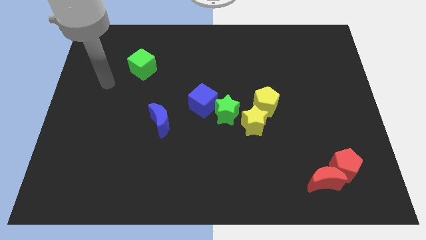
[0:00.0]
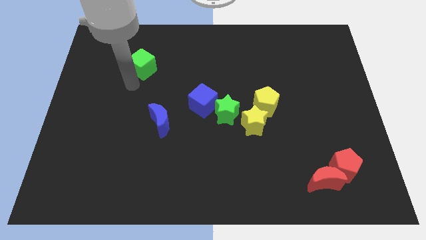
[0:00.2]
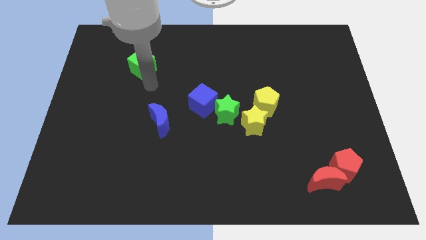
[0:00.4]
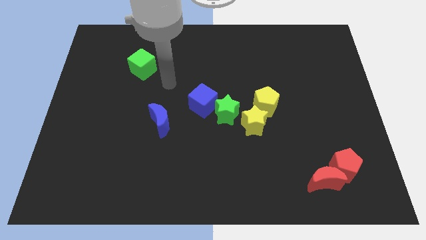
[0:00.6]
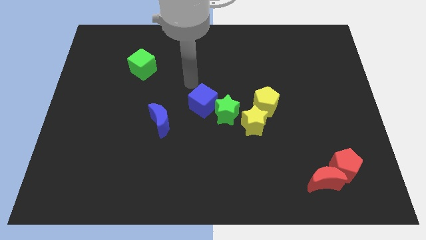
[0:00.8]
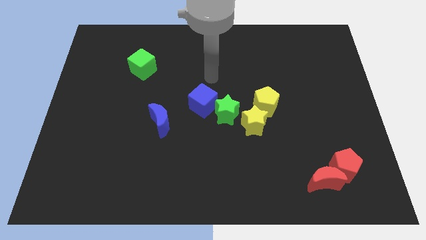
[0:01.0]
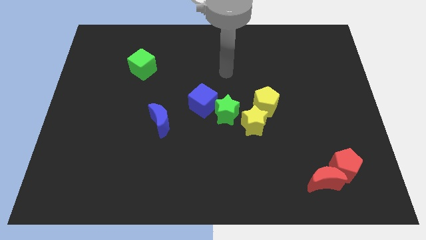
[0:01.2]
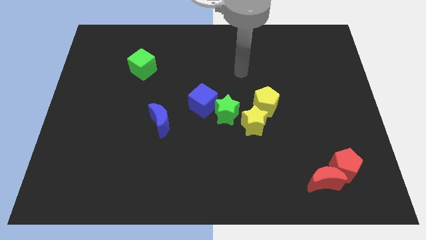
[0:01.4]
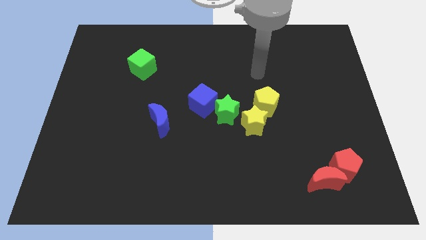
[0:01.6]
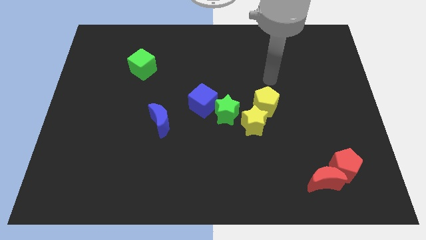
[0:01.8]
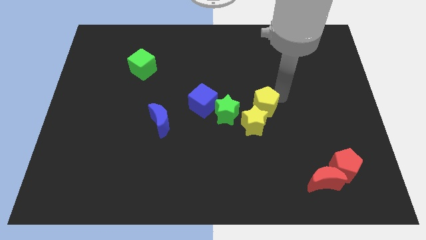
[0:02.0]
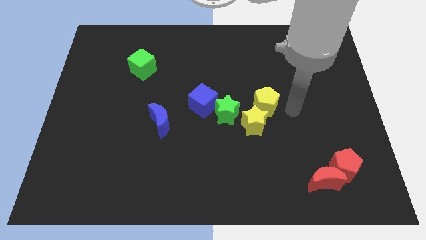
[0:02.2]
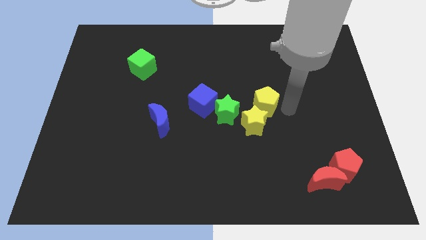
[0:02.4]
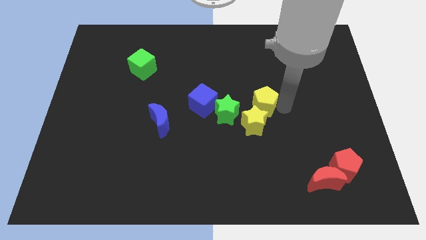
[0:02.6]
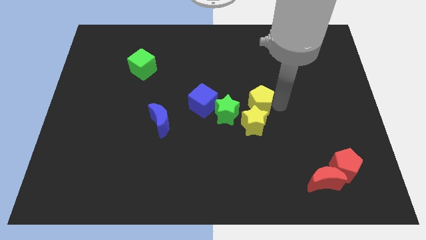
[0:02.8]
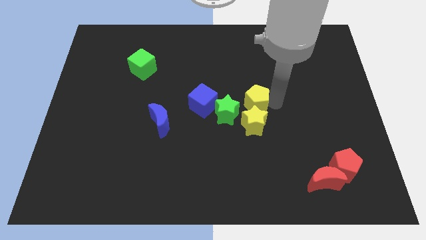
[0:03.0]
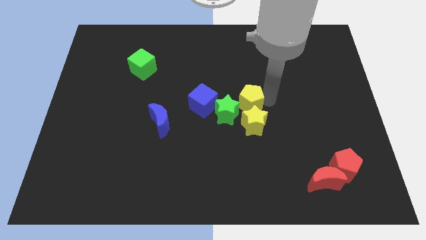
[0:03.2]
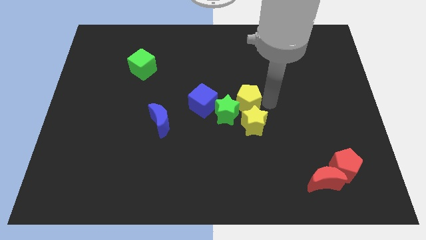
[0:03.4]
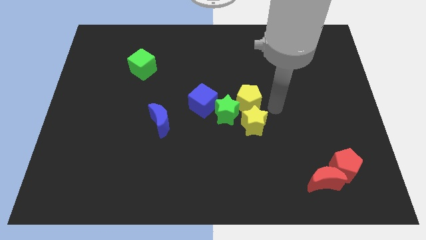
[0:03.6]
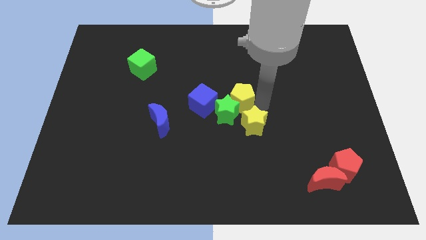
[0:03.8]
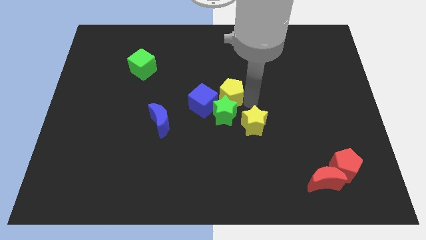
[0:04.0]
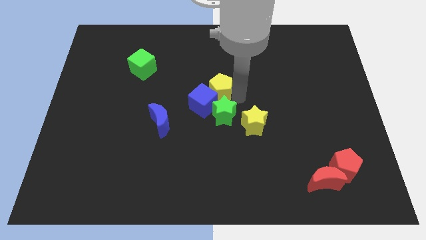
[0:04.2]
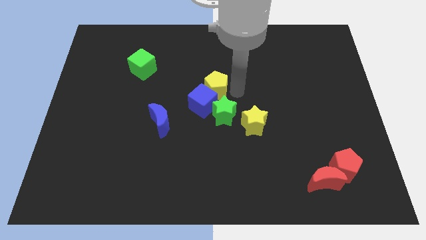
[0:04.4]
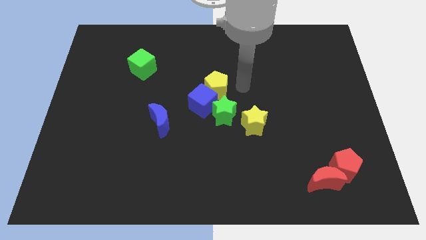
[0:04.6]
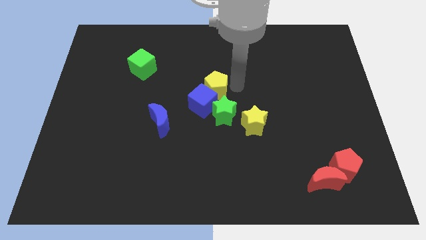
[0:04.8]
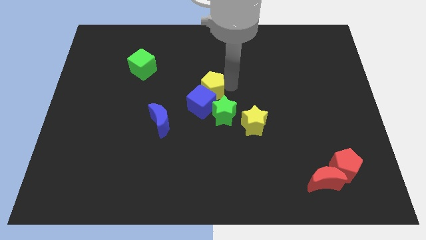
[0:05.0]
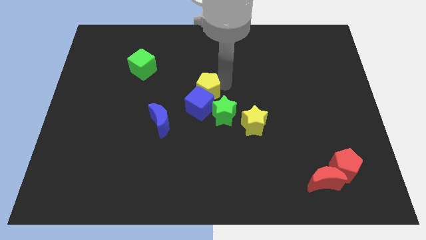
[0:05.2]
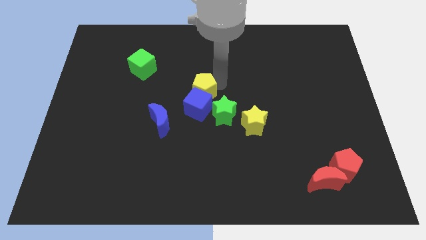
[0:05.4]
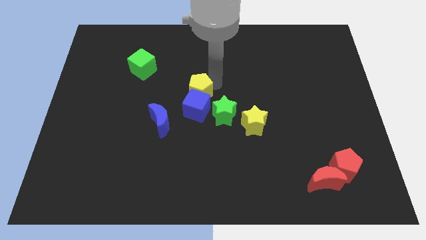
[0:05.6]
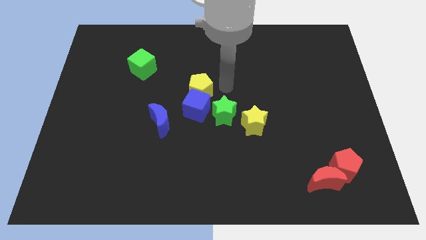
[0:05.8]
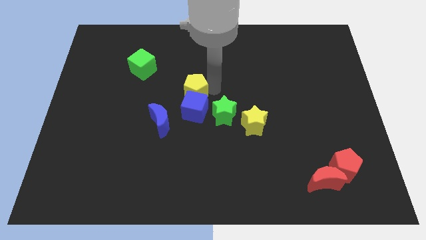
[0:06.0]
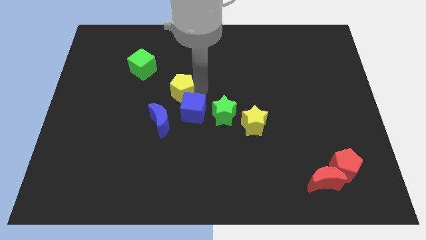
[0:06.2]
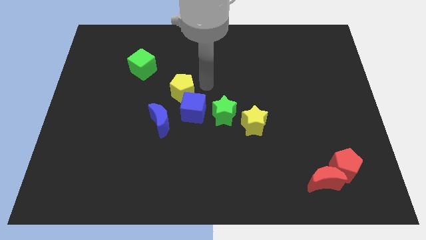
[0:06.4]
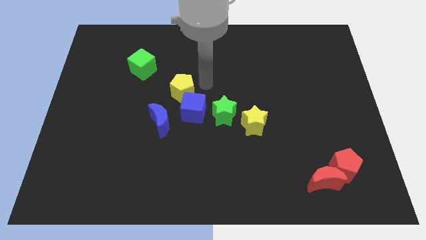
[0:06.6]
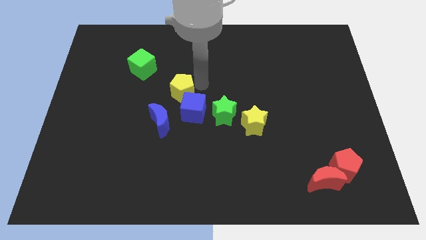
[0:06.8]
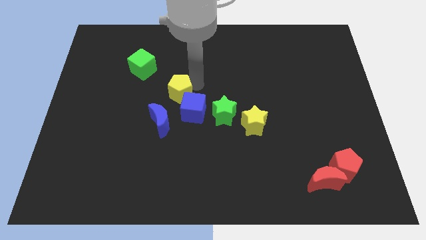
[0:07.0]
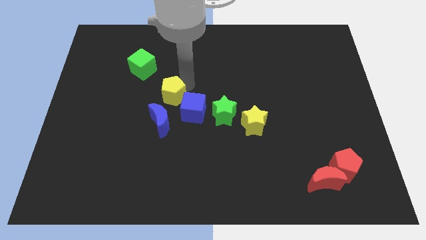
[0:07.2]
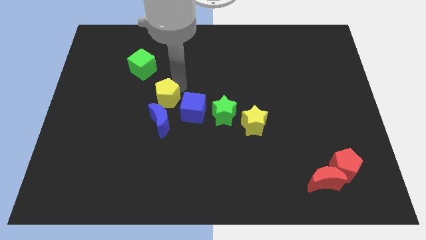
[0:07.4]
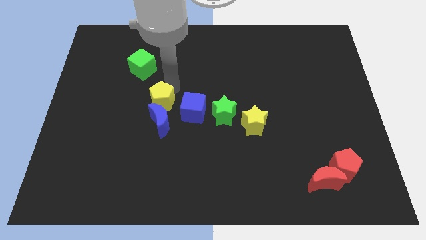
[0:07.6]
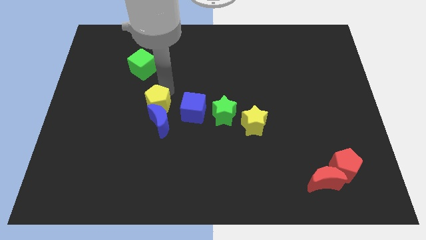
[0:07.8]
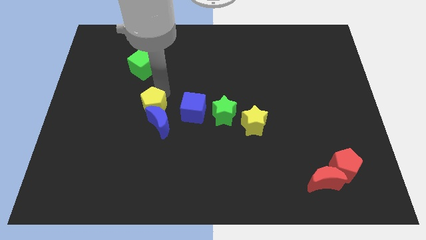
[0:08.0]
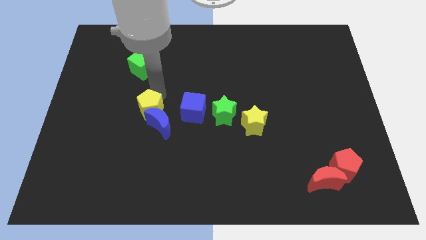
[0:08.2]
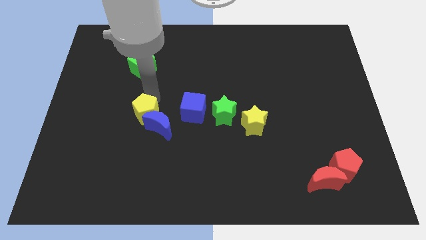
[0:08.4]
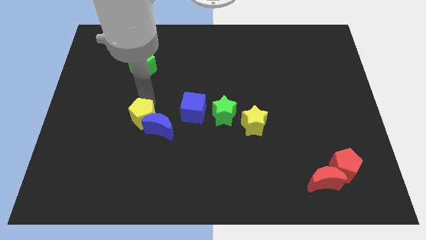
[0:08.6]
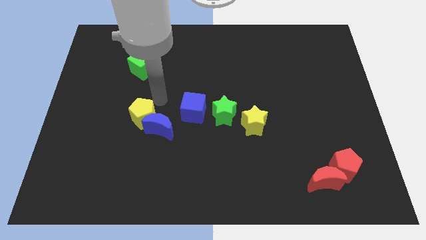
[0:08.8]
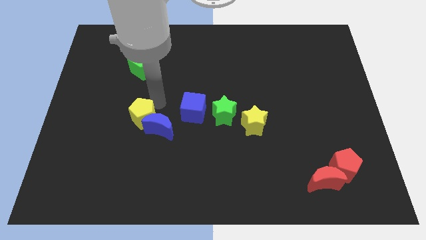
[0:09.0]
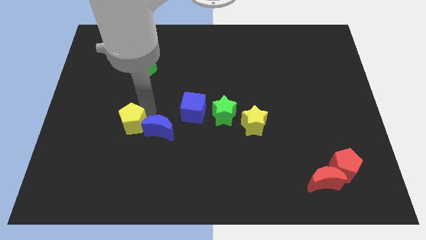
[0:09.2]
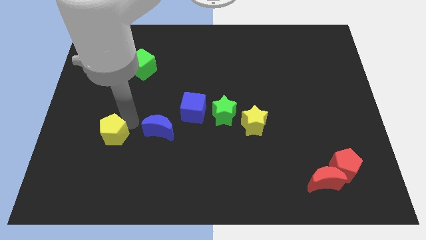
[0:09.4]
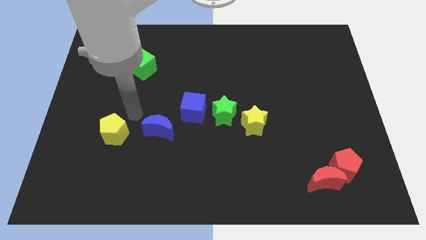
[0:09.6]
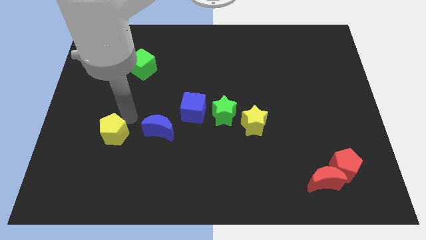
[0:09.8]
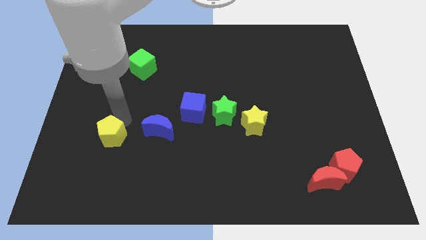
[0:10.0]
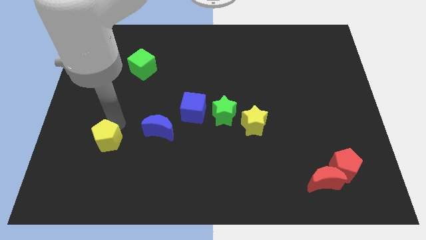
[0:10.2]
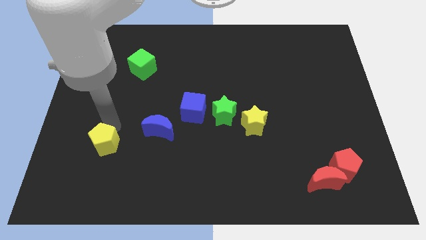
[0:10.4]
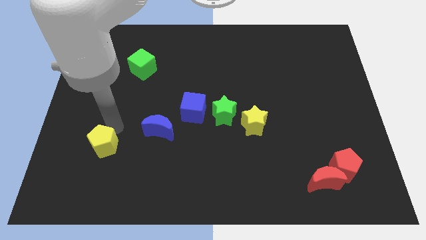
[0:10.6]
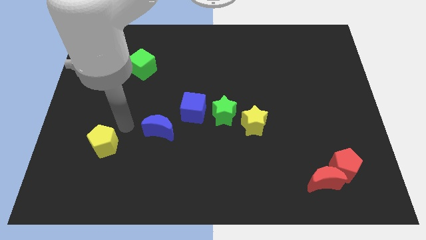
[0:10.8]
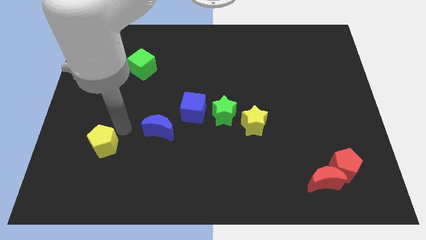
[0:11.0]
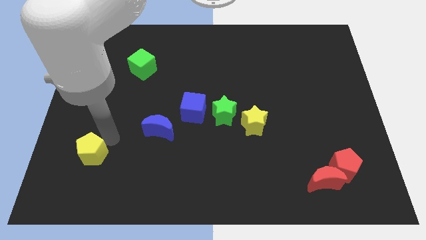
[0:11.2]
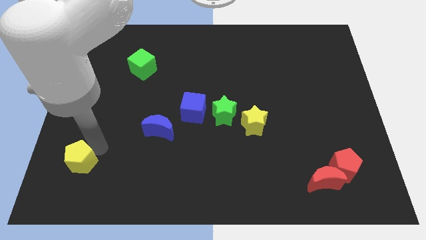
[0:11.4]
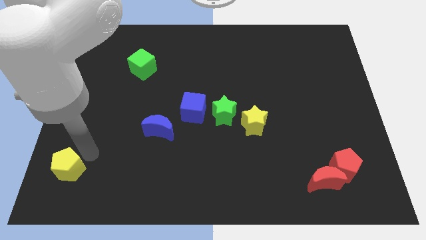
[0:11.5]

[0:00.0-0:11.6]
move the yellow pentagon to the bottom left

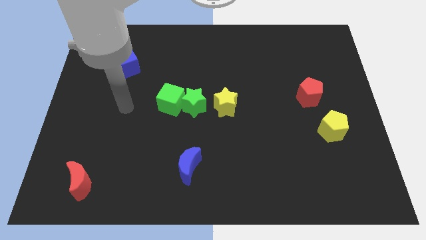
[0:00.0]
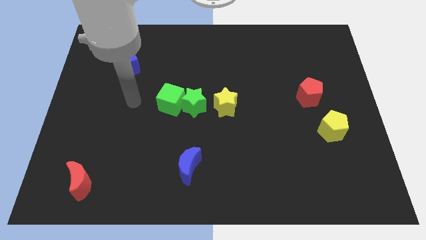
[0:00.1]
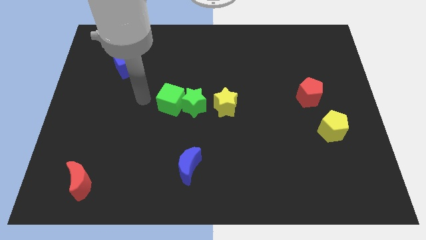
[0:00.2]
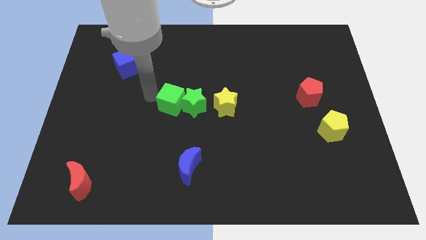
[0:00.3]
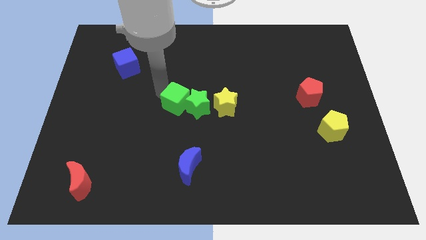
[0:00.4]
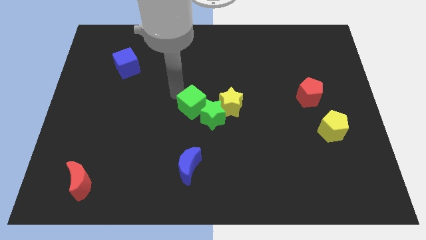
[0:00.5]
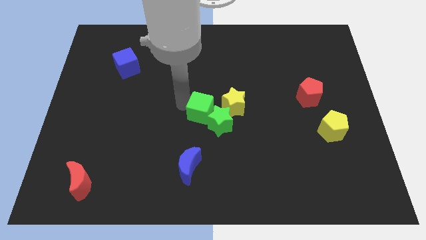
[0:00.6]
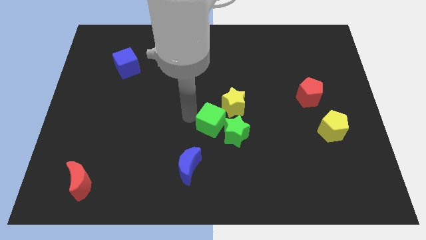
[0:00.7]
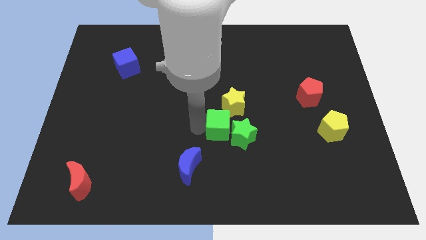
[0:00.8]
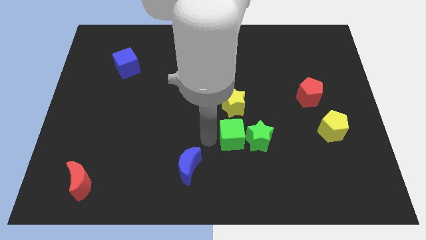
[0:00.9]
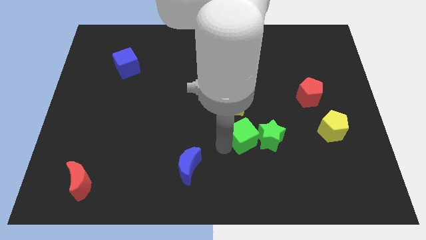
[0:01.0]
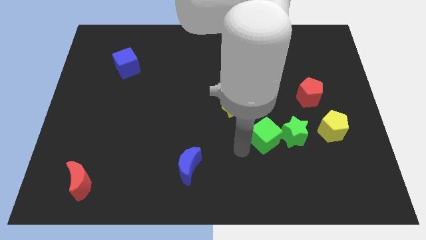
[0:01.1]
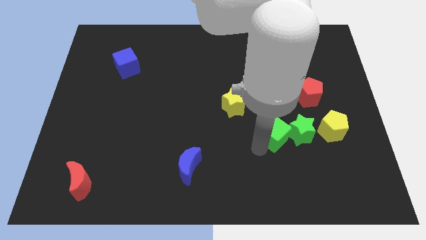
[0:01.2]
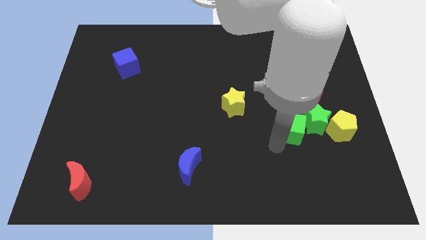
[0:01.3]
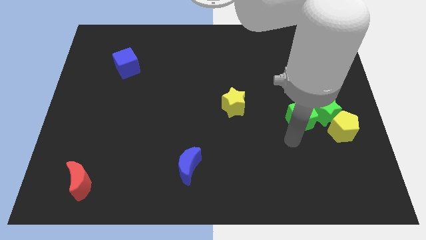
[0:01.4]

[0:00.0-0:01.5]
slide the green star to the right side of the board
